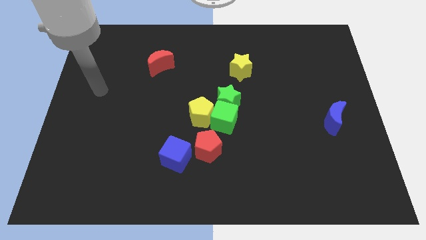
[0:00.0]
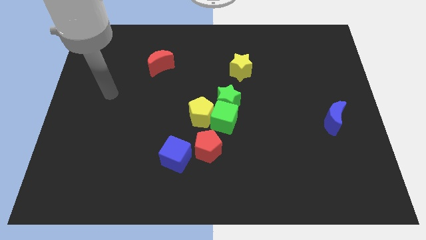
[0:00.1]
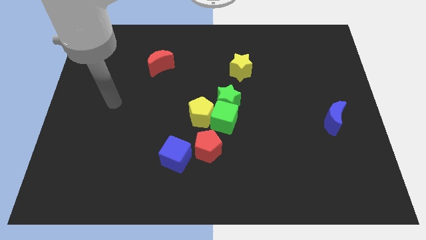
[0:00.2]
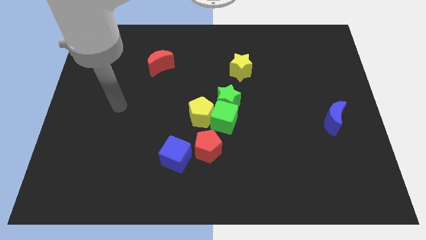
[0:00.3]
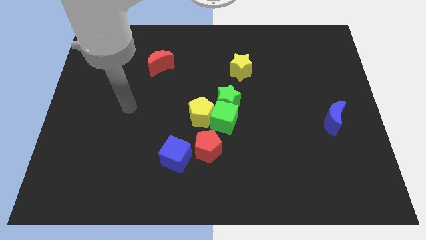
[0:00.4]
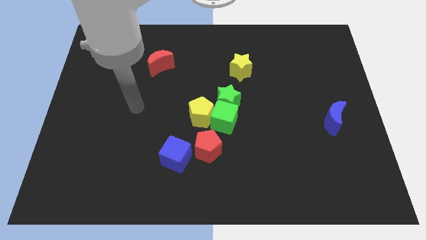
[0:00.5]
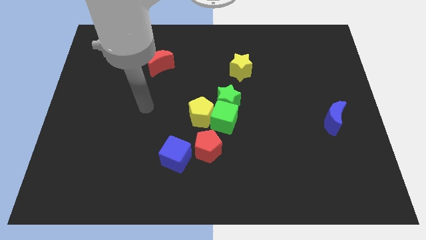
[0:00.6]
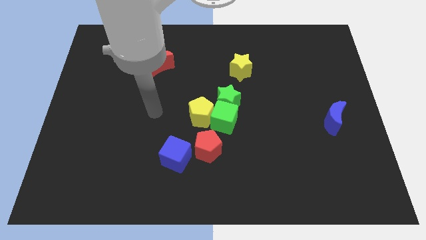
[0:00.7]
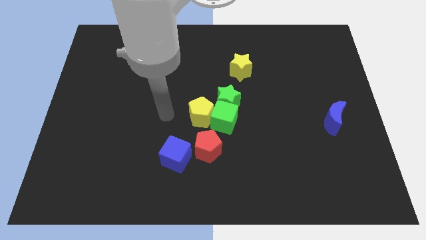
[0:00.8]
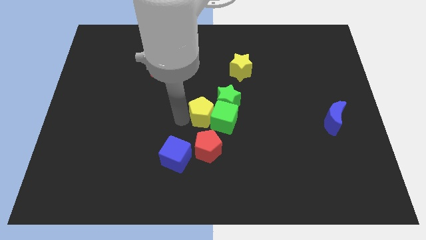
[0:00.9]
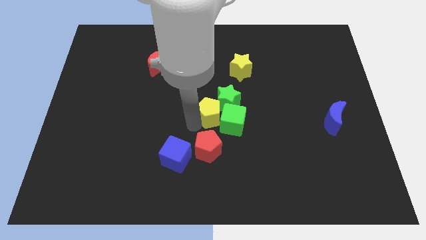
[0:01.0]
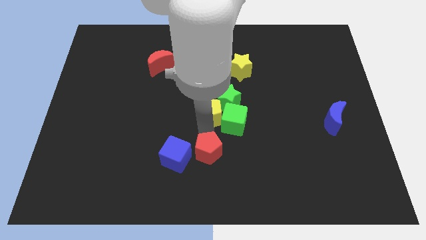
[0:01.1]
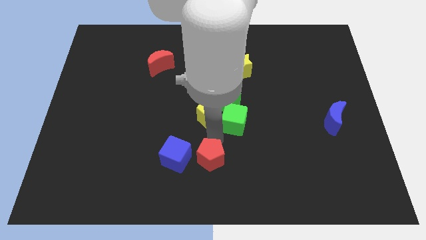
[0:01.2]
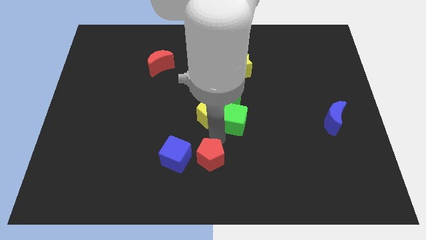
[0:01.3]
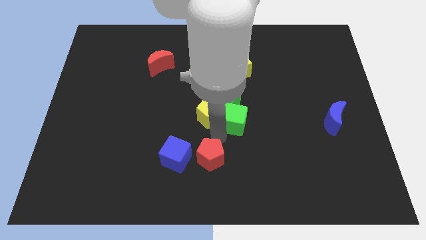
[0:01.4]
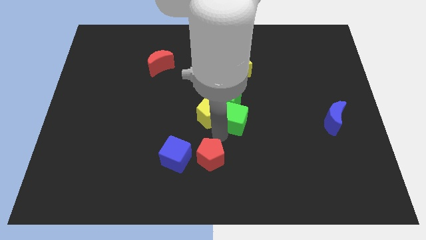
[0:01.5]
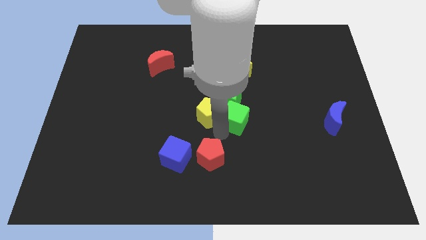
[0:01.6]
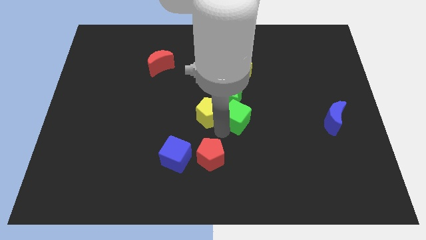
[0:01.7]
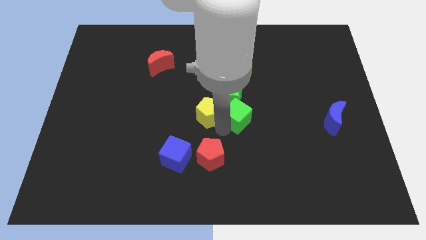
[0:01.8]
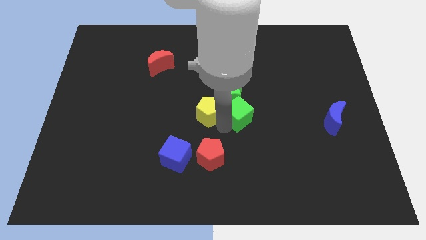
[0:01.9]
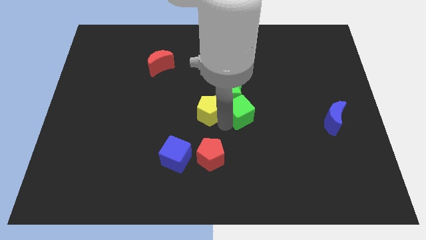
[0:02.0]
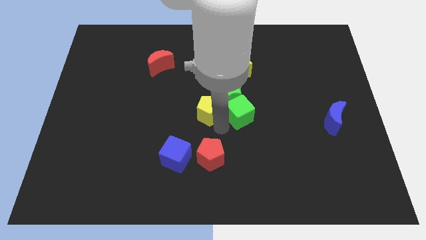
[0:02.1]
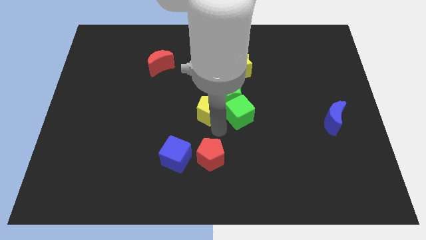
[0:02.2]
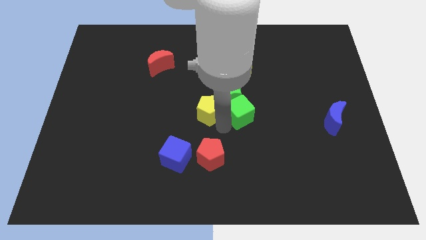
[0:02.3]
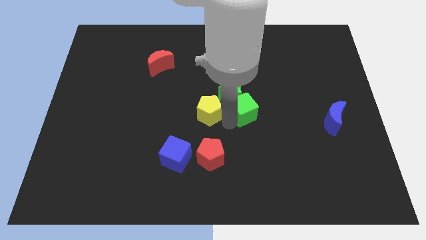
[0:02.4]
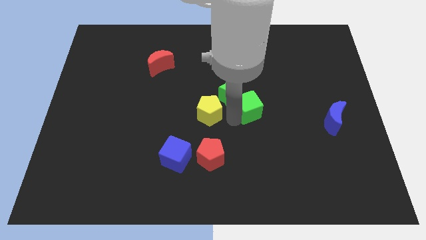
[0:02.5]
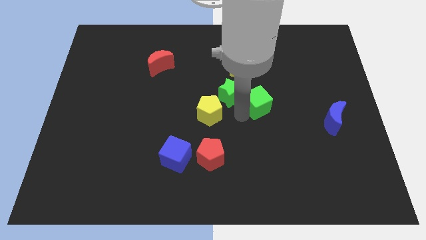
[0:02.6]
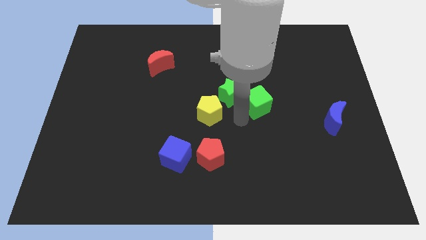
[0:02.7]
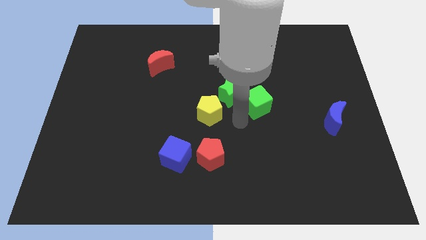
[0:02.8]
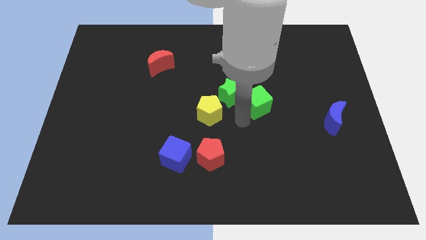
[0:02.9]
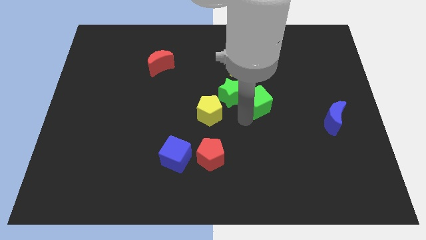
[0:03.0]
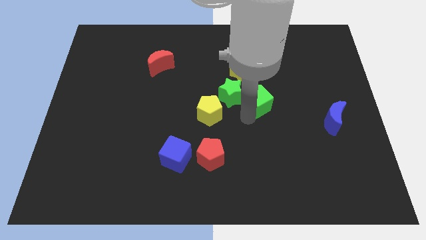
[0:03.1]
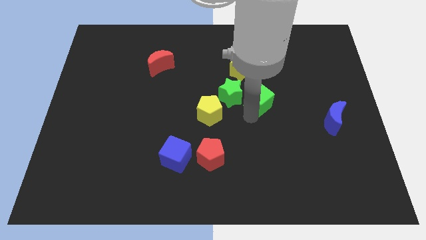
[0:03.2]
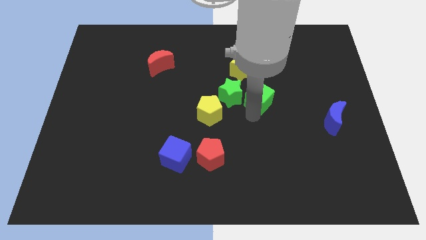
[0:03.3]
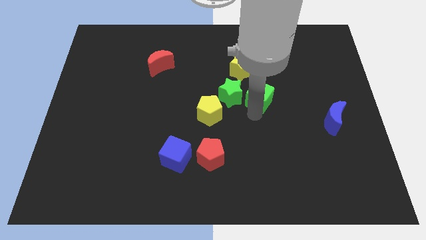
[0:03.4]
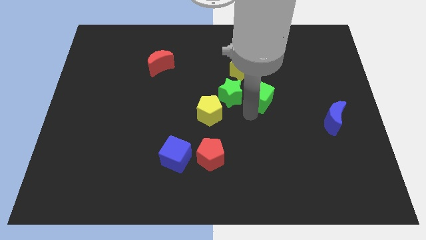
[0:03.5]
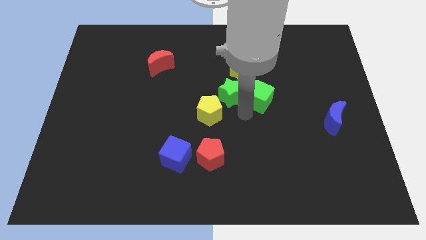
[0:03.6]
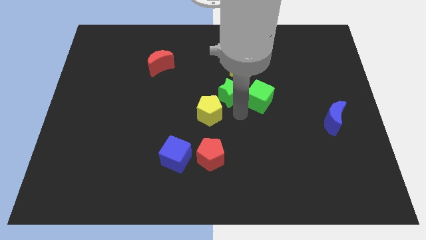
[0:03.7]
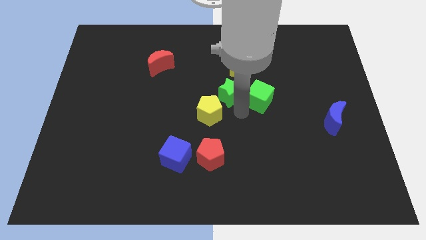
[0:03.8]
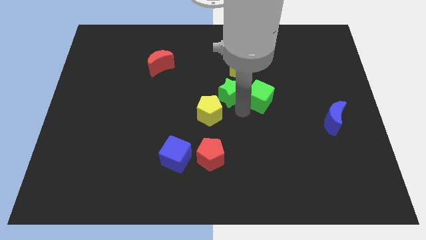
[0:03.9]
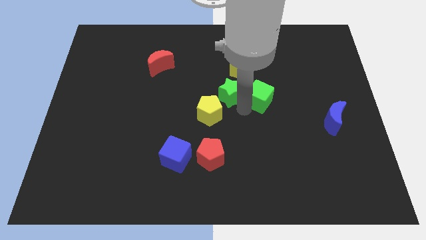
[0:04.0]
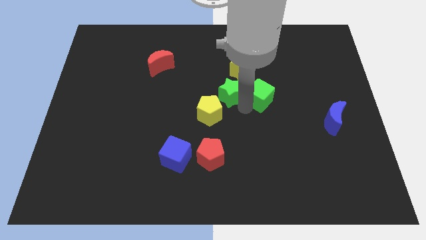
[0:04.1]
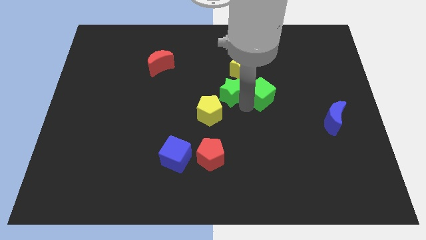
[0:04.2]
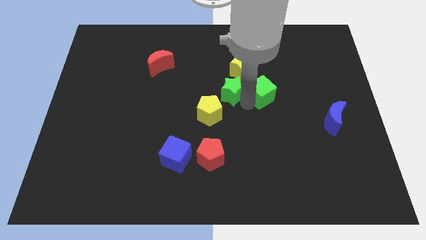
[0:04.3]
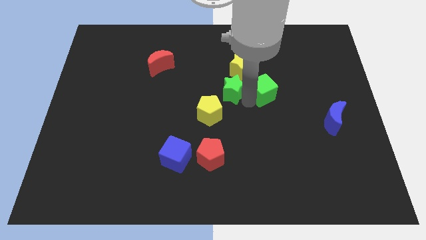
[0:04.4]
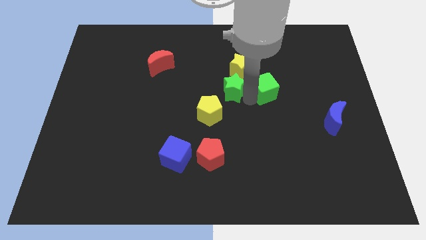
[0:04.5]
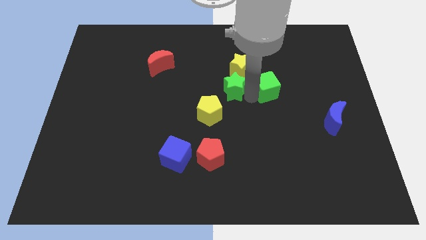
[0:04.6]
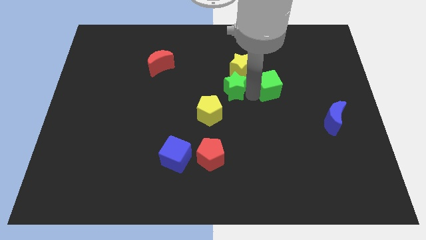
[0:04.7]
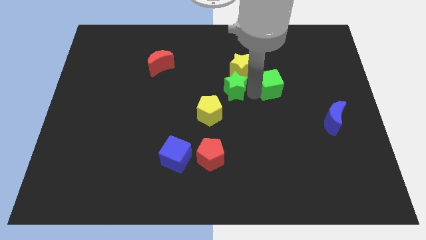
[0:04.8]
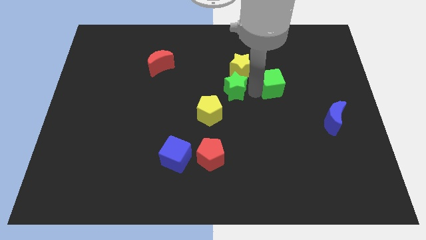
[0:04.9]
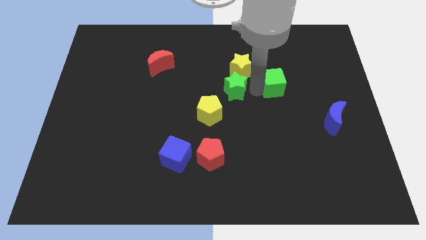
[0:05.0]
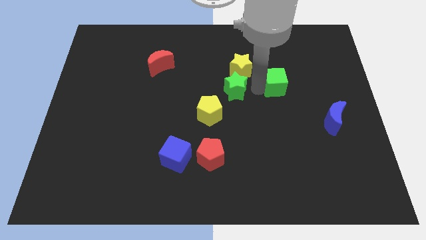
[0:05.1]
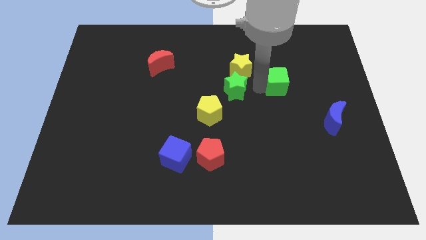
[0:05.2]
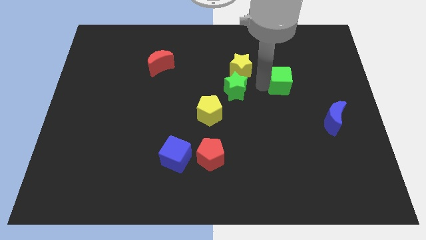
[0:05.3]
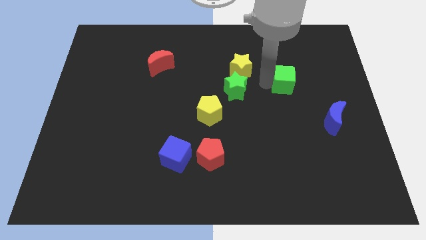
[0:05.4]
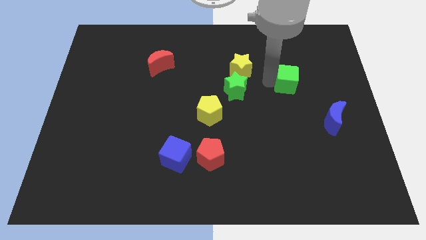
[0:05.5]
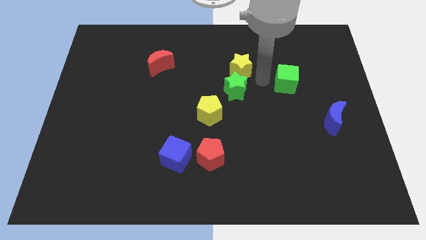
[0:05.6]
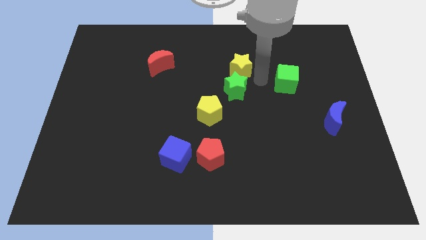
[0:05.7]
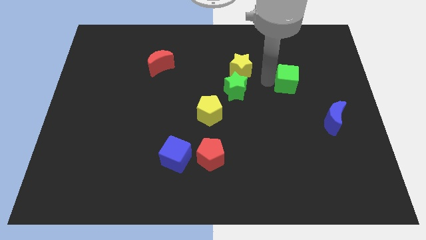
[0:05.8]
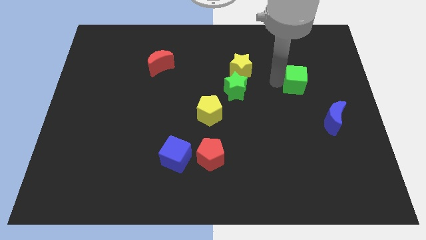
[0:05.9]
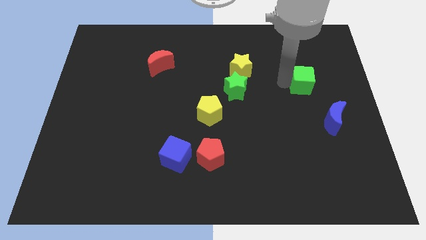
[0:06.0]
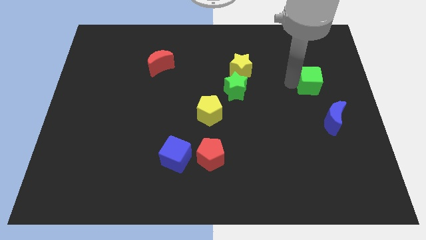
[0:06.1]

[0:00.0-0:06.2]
slide the green cube to the top of the blue moon

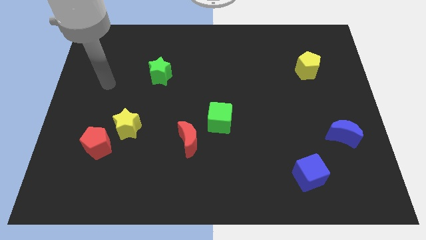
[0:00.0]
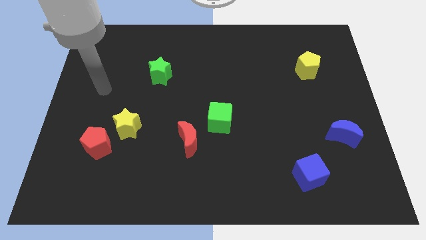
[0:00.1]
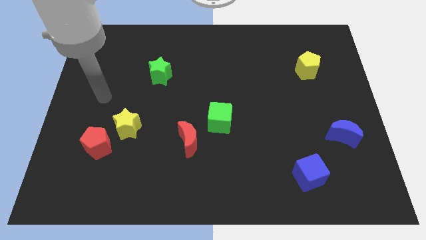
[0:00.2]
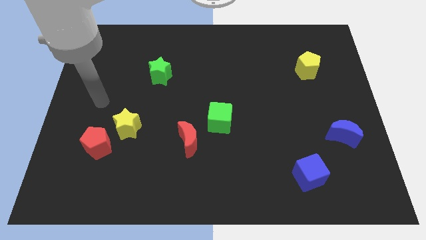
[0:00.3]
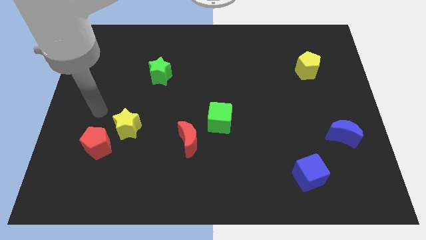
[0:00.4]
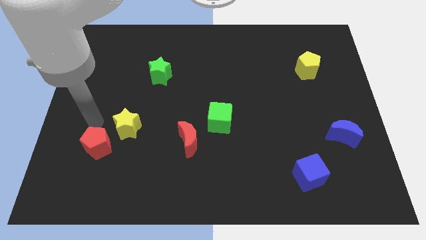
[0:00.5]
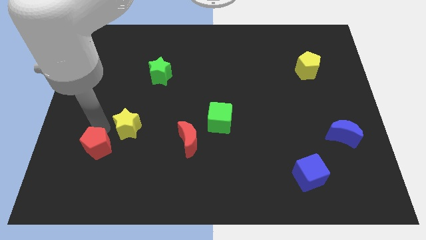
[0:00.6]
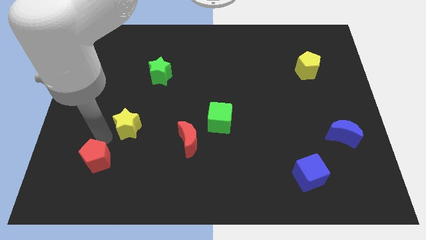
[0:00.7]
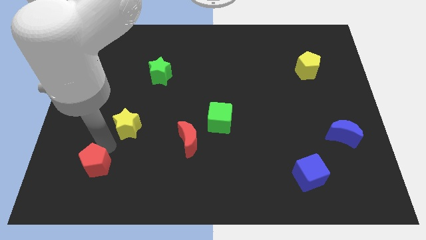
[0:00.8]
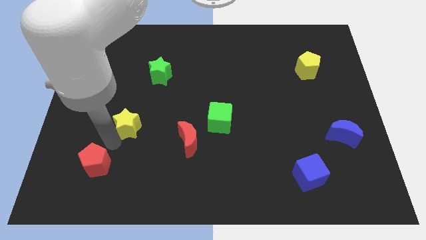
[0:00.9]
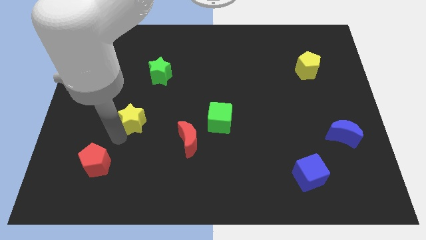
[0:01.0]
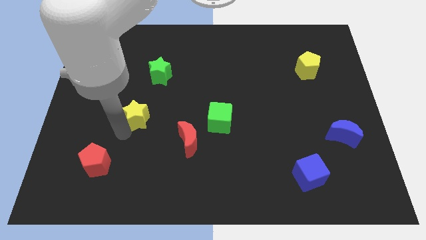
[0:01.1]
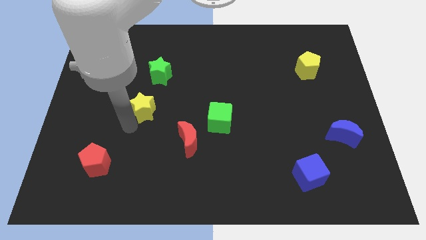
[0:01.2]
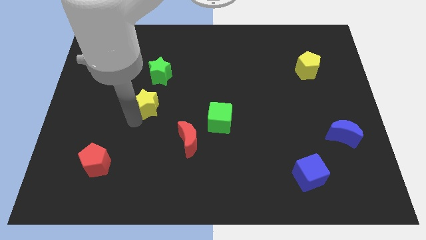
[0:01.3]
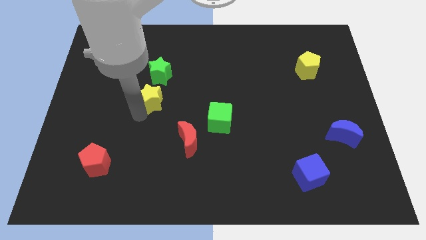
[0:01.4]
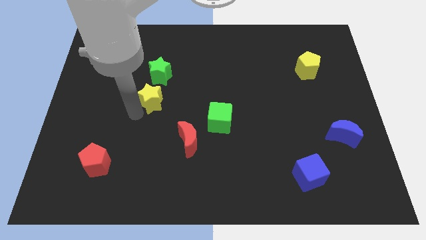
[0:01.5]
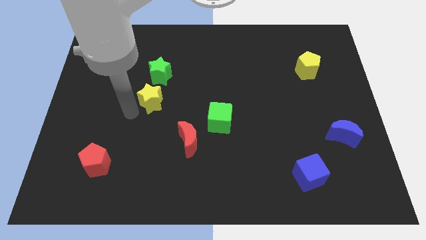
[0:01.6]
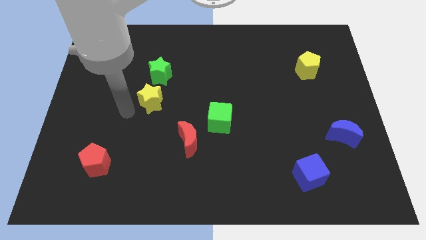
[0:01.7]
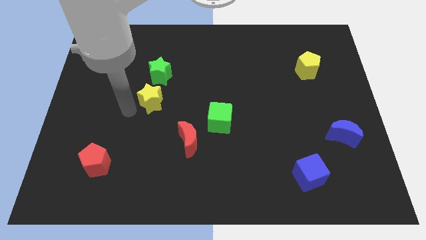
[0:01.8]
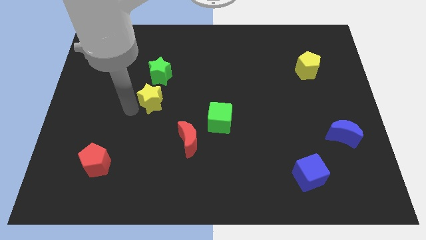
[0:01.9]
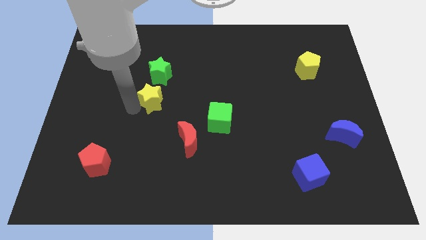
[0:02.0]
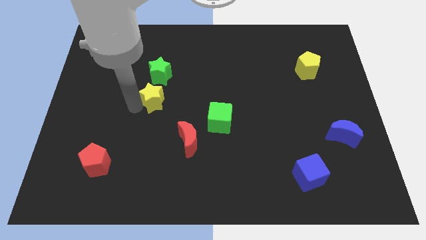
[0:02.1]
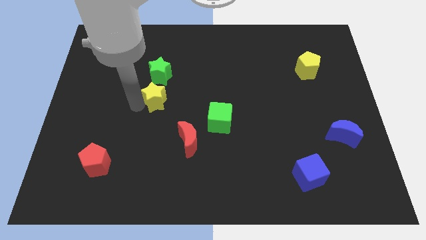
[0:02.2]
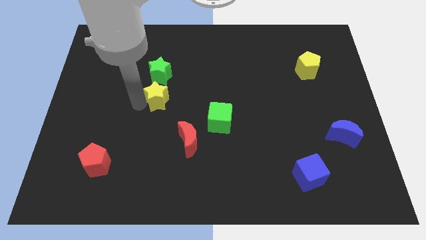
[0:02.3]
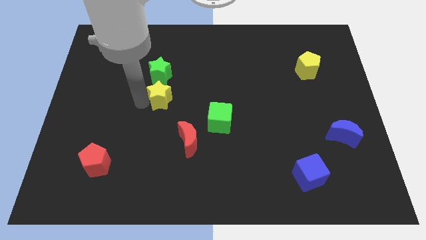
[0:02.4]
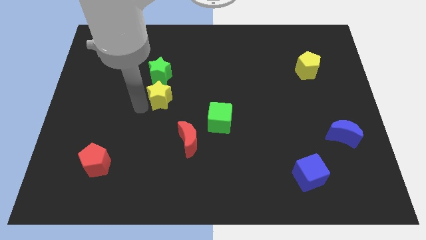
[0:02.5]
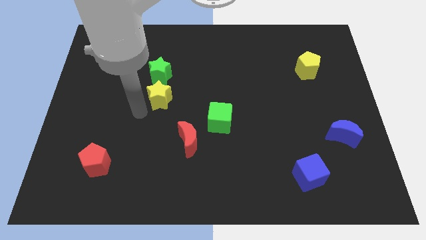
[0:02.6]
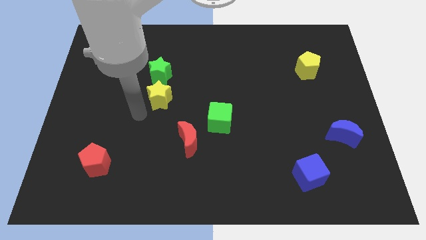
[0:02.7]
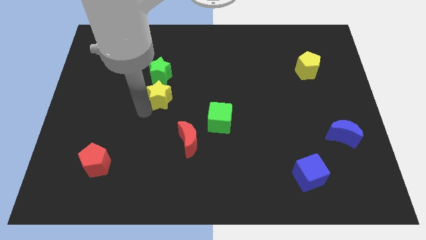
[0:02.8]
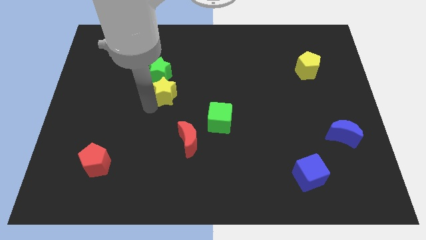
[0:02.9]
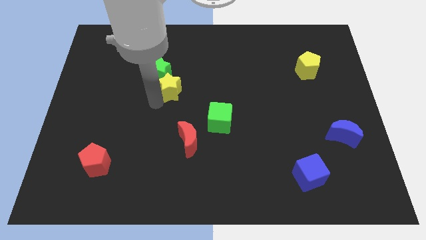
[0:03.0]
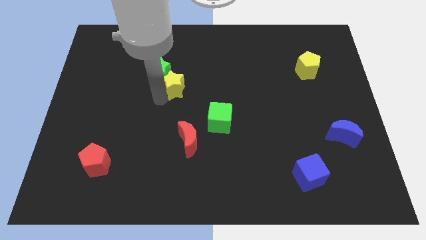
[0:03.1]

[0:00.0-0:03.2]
push the yellow star right of the green star
